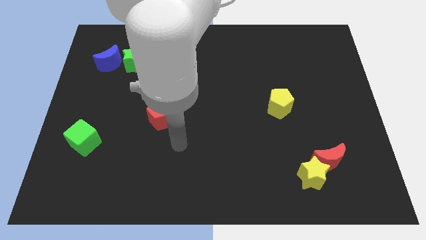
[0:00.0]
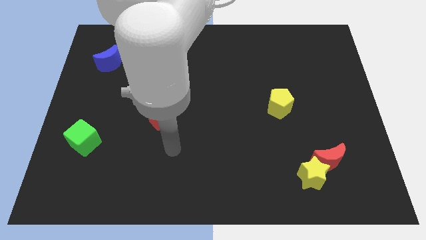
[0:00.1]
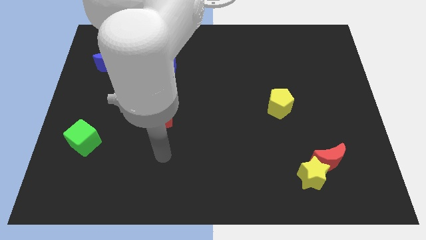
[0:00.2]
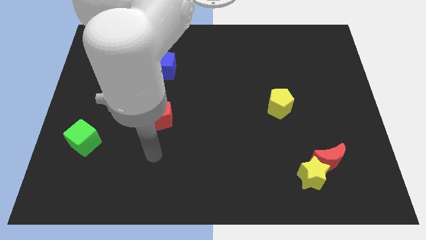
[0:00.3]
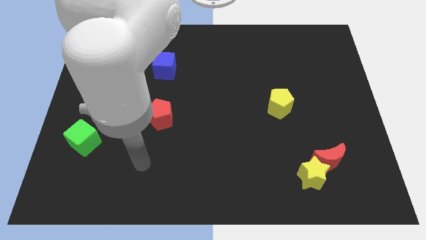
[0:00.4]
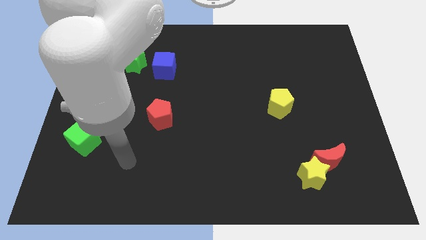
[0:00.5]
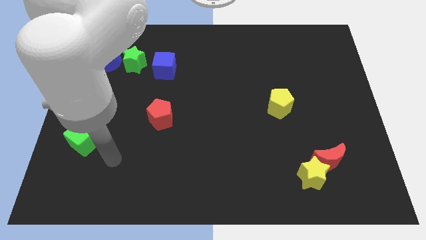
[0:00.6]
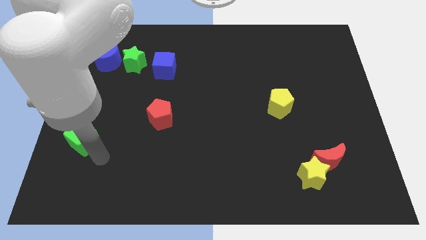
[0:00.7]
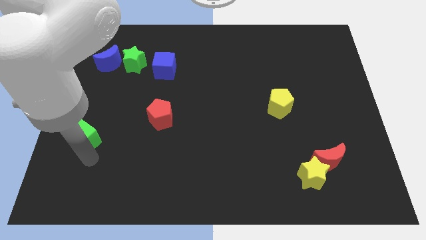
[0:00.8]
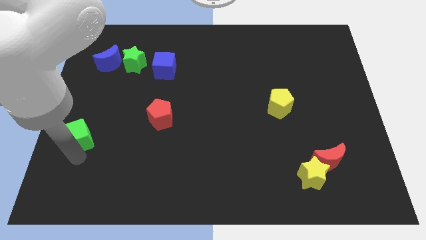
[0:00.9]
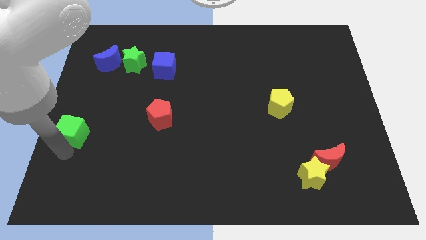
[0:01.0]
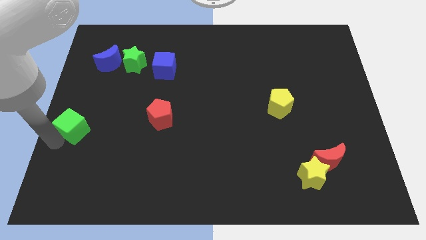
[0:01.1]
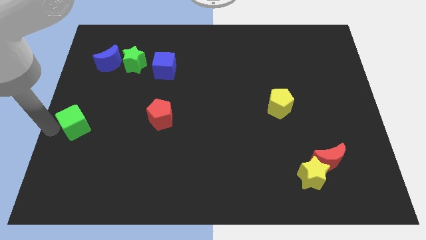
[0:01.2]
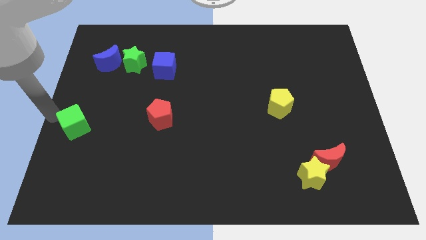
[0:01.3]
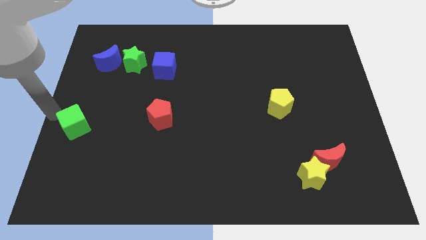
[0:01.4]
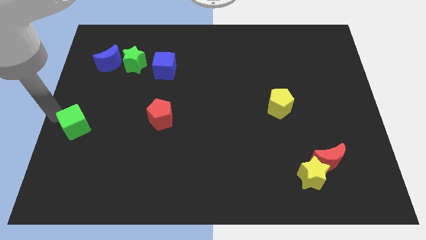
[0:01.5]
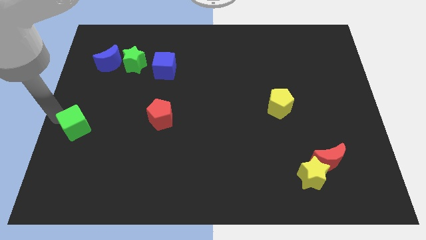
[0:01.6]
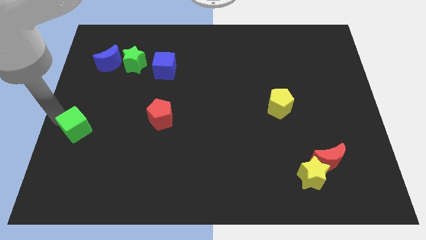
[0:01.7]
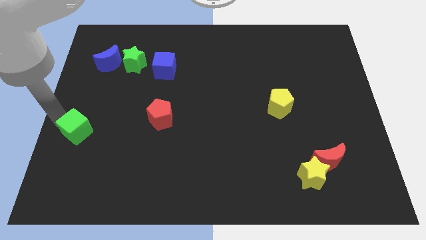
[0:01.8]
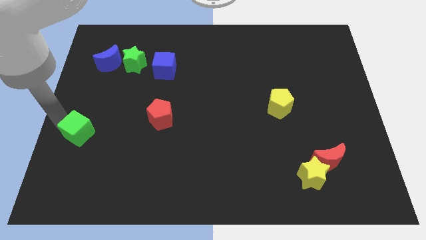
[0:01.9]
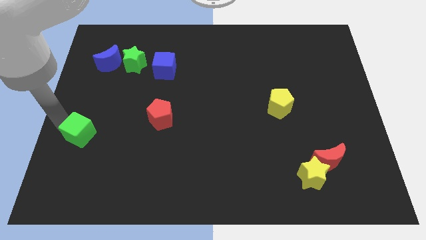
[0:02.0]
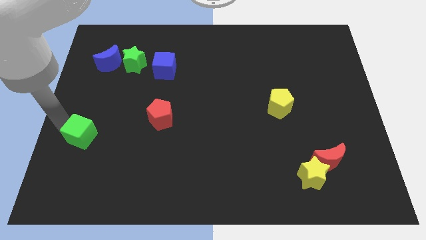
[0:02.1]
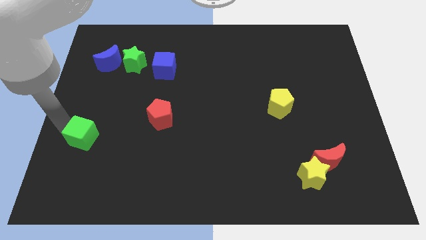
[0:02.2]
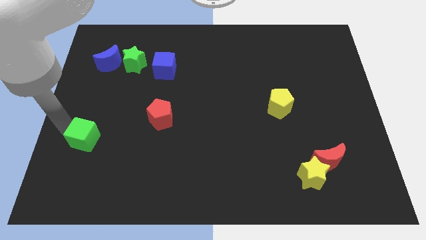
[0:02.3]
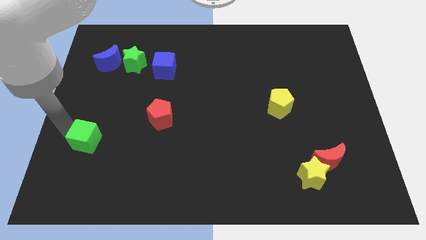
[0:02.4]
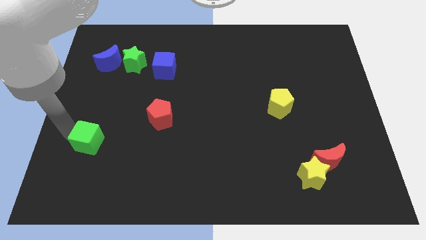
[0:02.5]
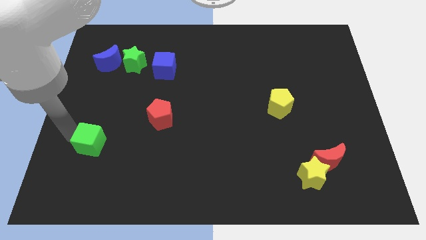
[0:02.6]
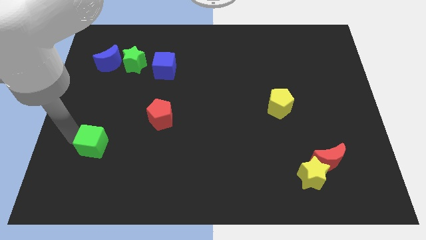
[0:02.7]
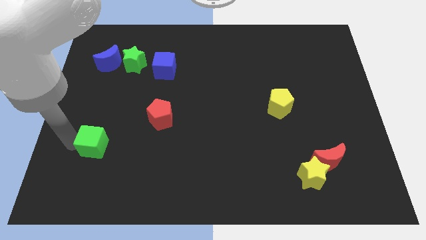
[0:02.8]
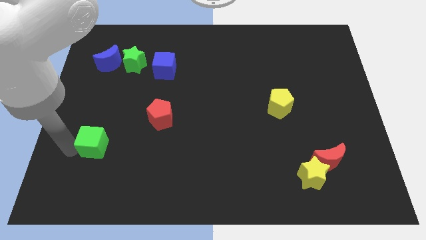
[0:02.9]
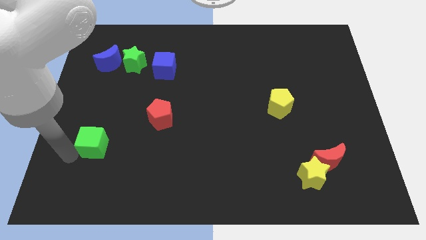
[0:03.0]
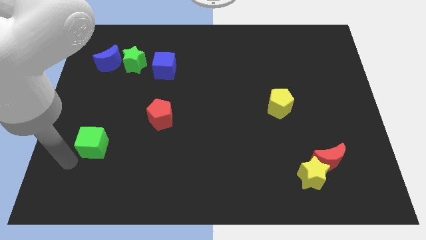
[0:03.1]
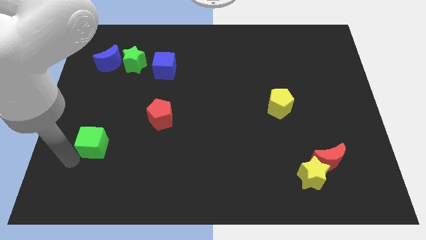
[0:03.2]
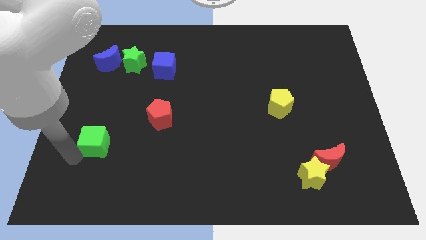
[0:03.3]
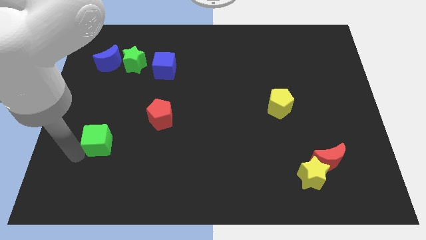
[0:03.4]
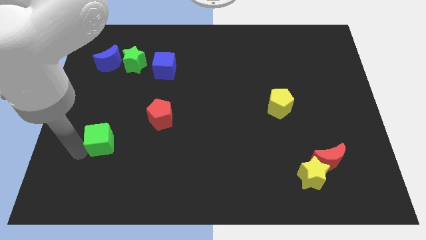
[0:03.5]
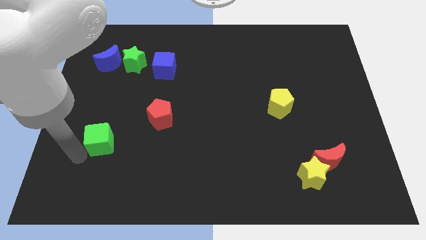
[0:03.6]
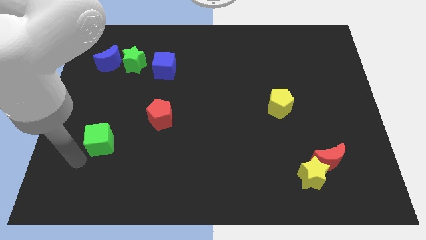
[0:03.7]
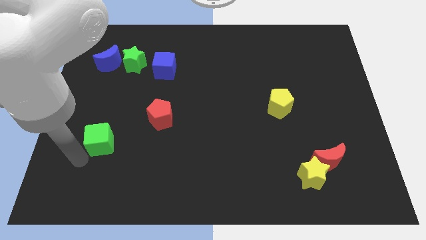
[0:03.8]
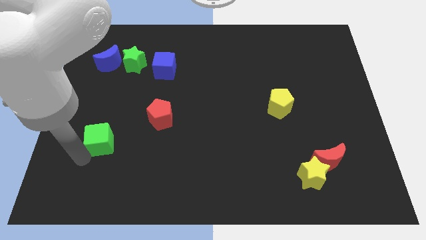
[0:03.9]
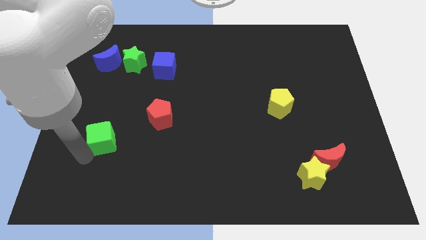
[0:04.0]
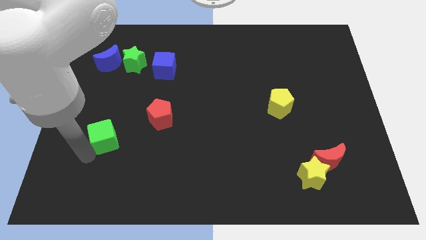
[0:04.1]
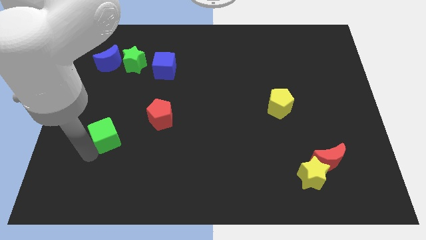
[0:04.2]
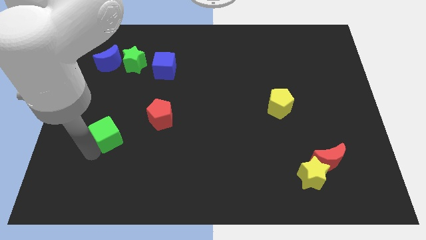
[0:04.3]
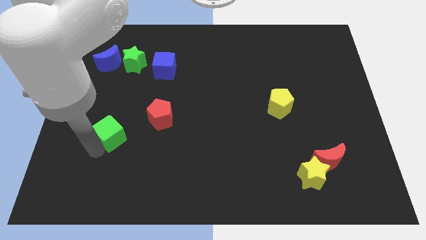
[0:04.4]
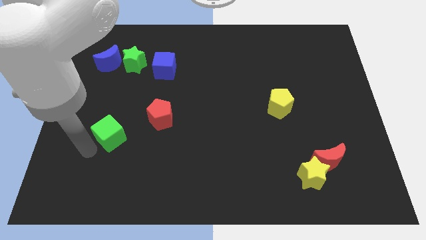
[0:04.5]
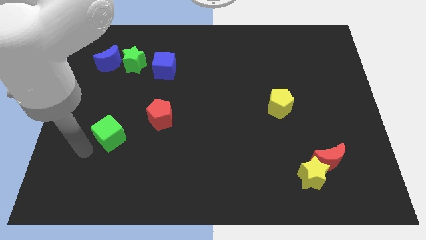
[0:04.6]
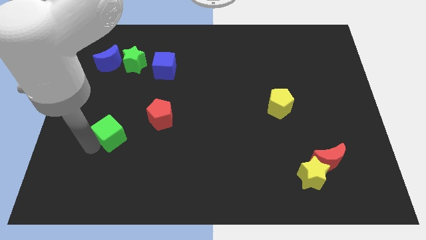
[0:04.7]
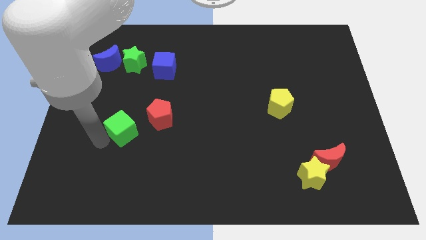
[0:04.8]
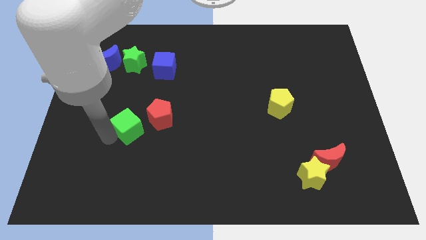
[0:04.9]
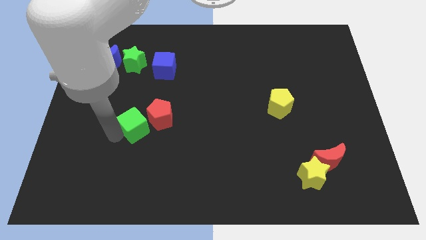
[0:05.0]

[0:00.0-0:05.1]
slide the green cube to the red pentagon

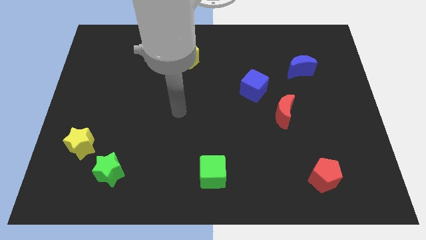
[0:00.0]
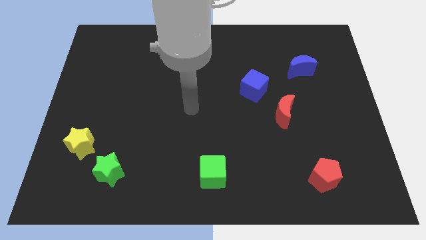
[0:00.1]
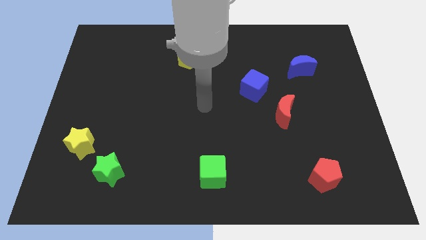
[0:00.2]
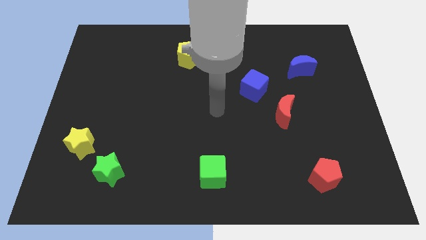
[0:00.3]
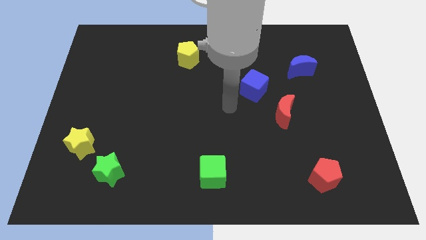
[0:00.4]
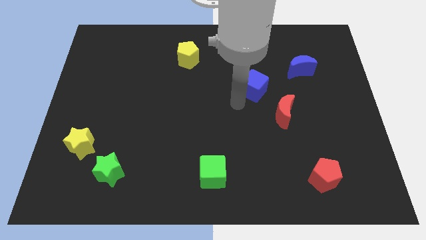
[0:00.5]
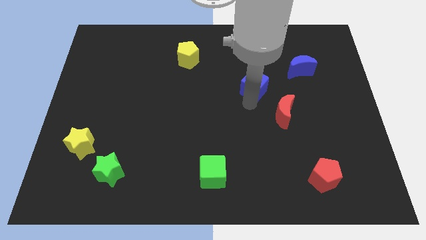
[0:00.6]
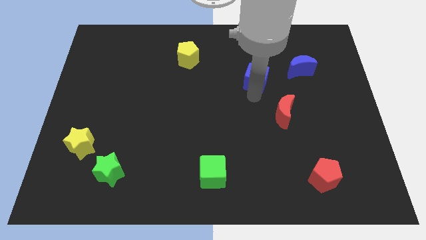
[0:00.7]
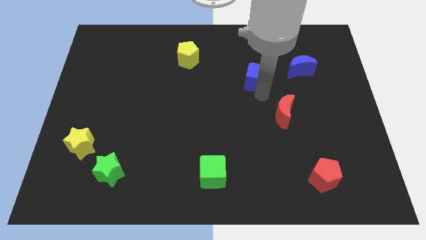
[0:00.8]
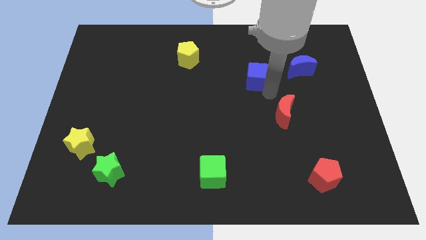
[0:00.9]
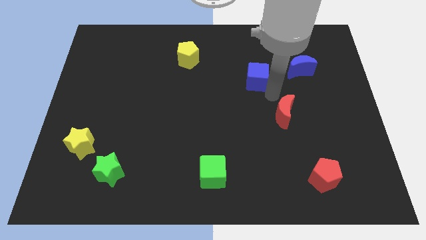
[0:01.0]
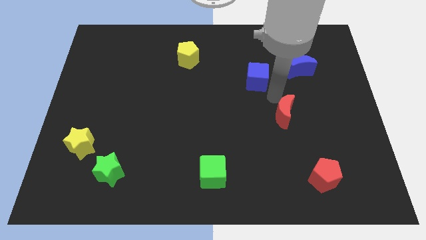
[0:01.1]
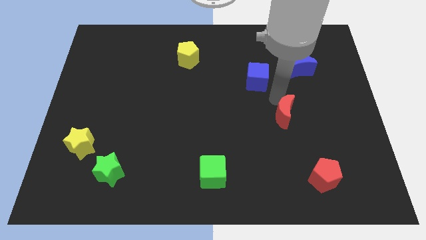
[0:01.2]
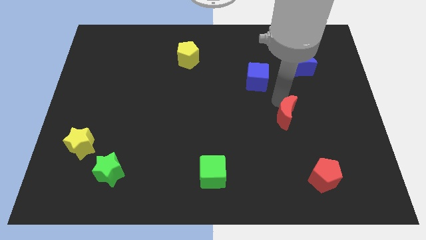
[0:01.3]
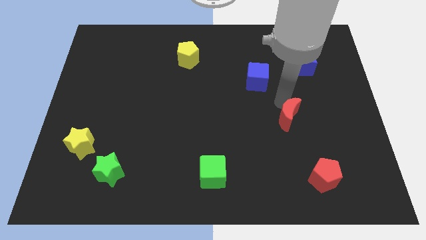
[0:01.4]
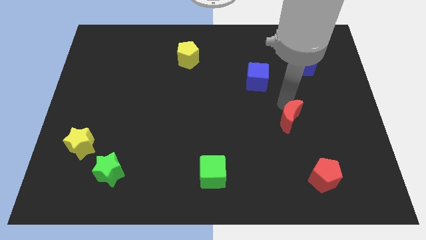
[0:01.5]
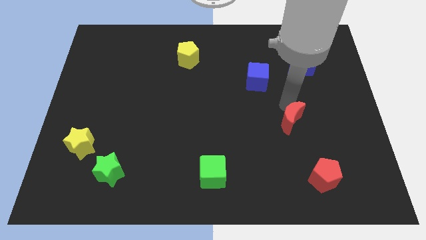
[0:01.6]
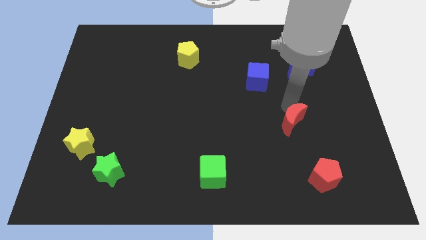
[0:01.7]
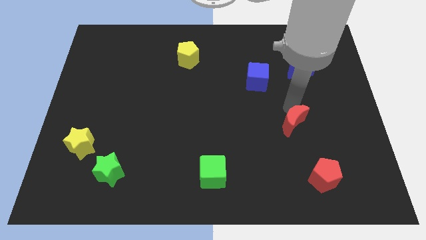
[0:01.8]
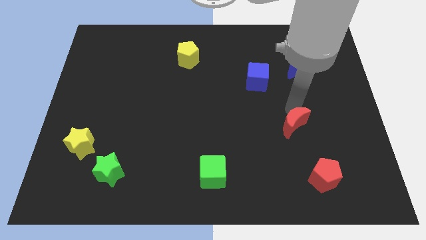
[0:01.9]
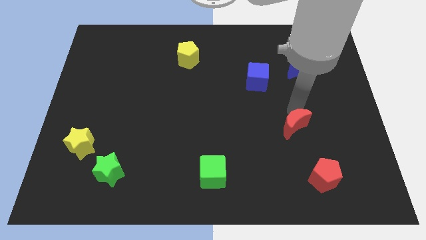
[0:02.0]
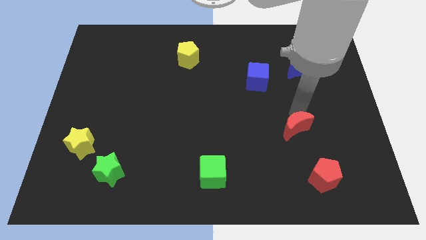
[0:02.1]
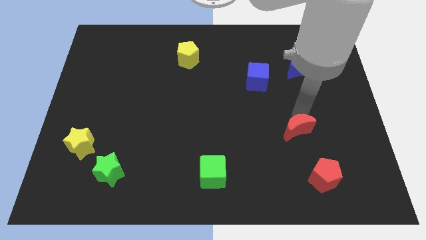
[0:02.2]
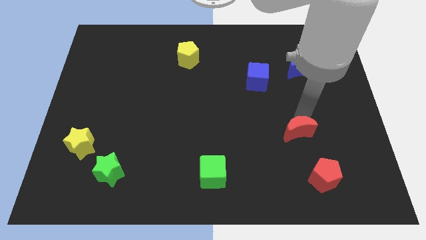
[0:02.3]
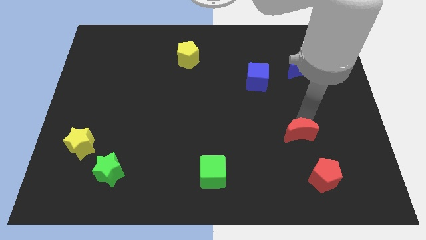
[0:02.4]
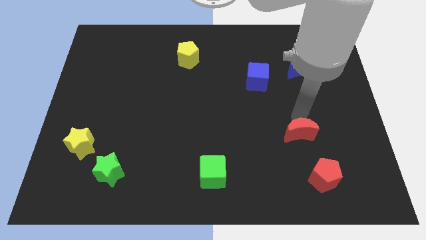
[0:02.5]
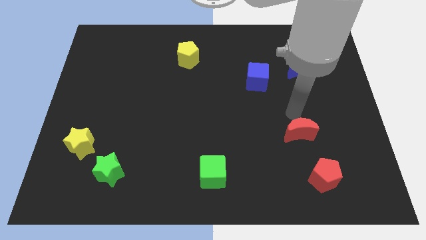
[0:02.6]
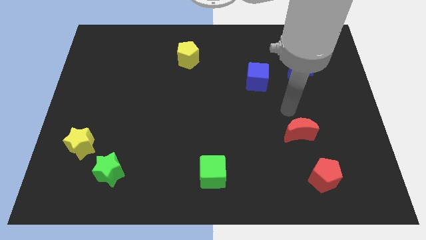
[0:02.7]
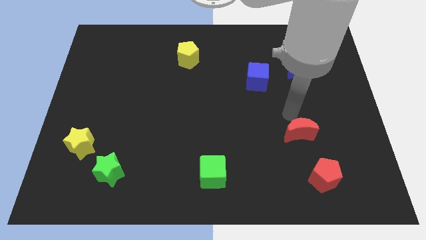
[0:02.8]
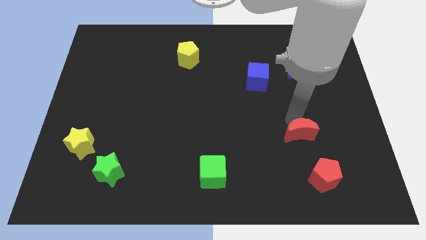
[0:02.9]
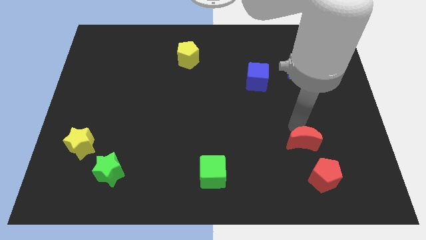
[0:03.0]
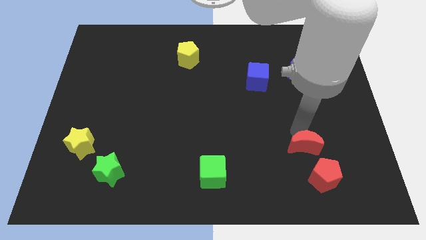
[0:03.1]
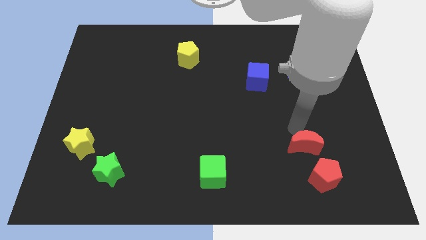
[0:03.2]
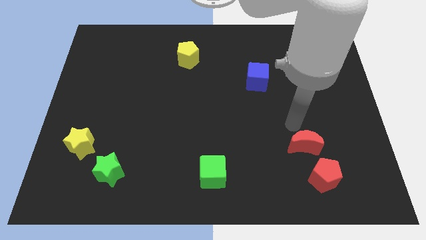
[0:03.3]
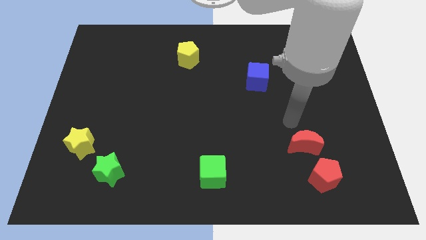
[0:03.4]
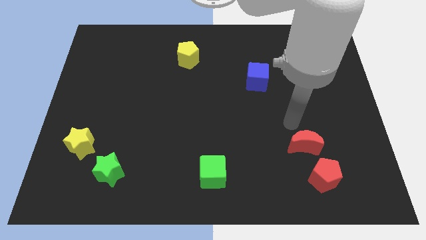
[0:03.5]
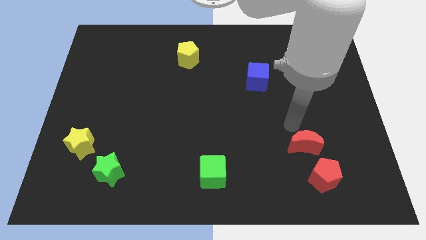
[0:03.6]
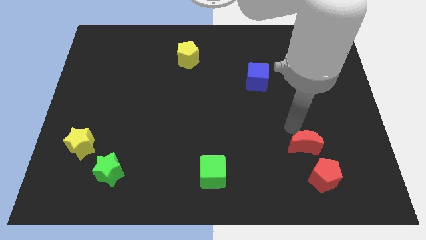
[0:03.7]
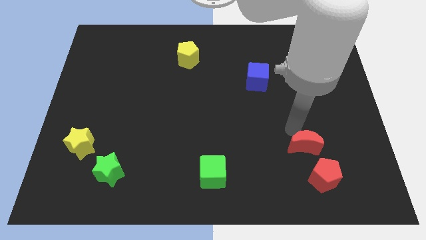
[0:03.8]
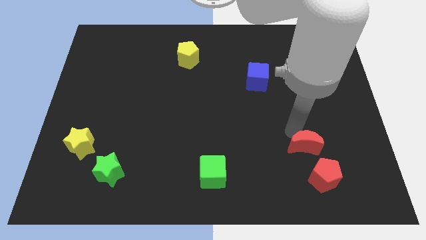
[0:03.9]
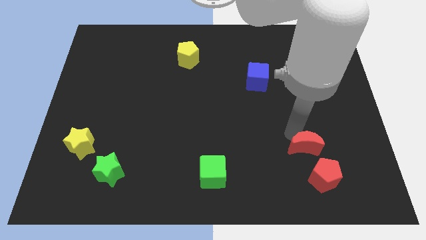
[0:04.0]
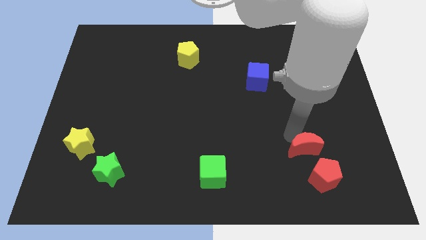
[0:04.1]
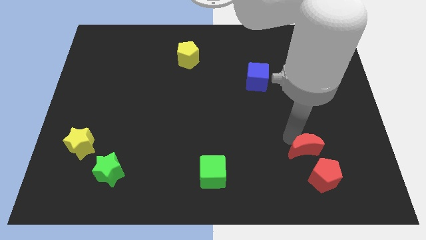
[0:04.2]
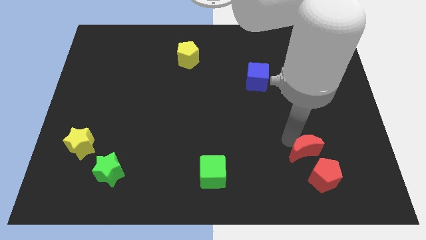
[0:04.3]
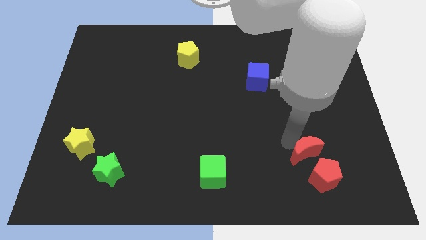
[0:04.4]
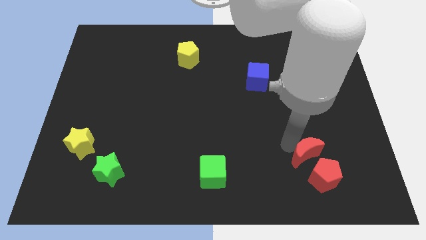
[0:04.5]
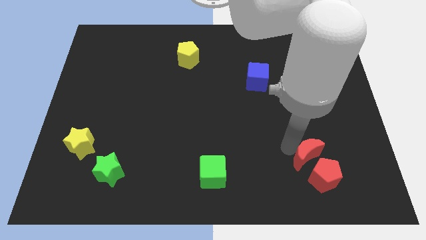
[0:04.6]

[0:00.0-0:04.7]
put the red moon next to the red pentagon
